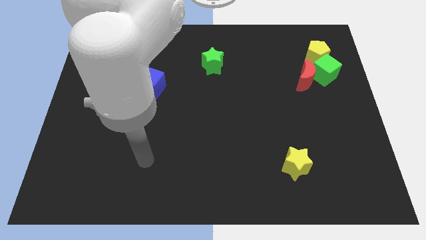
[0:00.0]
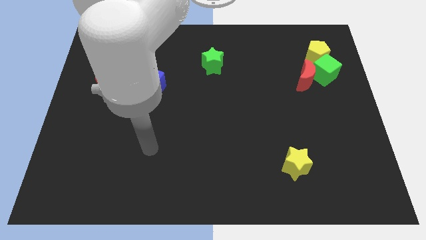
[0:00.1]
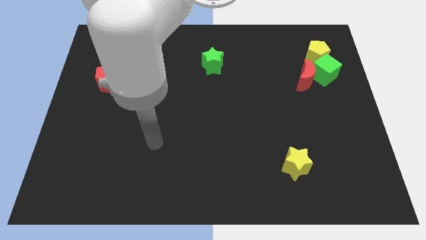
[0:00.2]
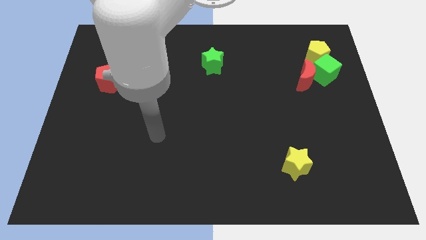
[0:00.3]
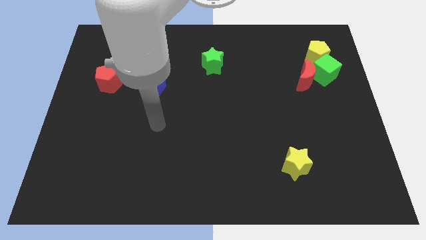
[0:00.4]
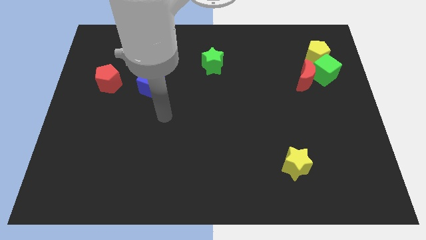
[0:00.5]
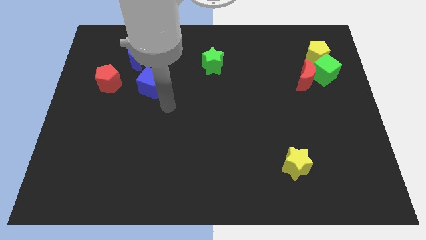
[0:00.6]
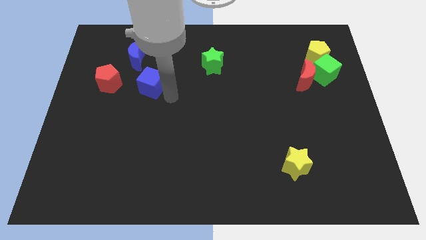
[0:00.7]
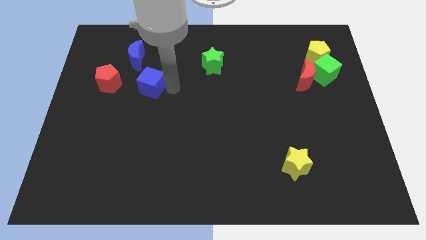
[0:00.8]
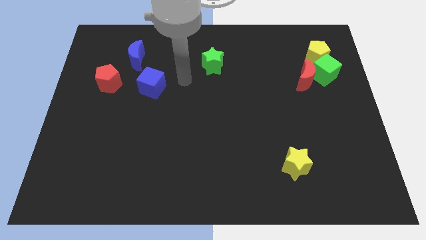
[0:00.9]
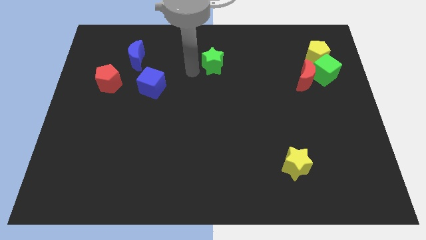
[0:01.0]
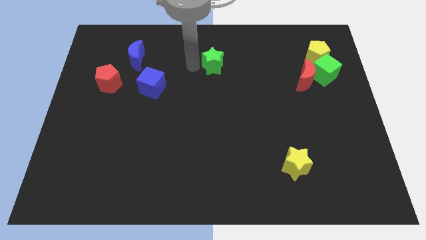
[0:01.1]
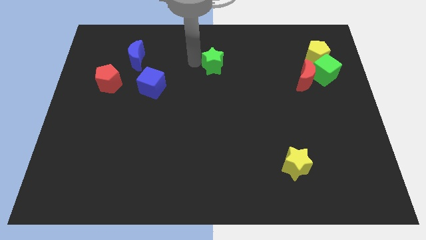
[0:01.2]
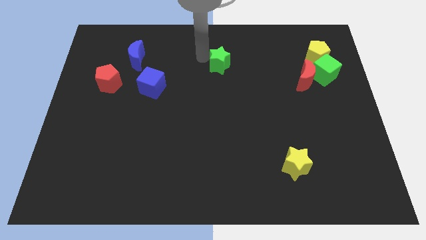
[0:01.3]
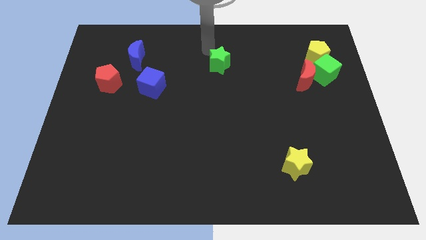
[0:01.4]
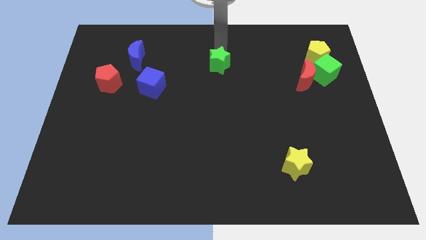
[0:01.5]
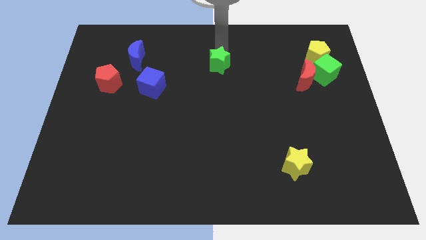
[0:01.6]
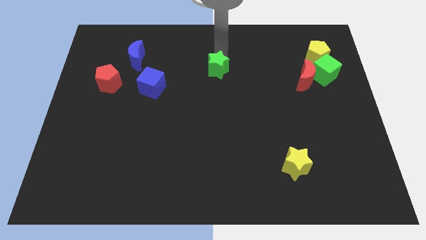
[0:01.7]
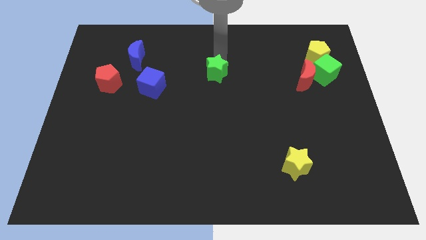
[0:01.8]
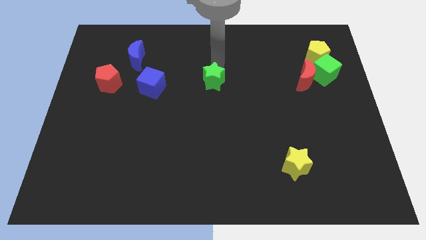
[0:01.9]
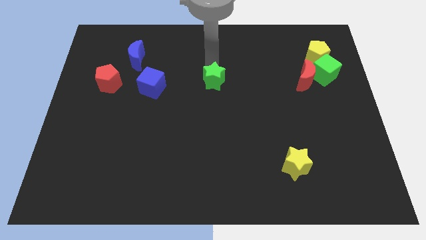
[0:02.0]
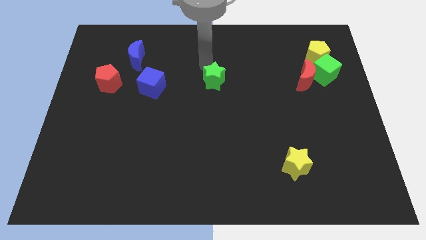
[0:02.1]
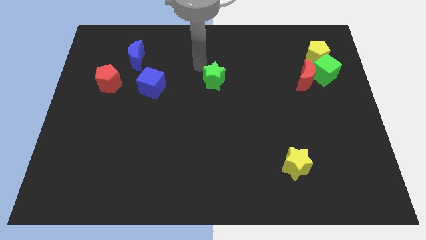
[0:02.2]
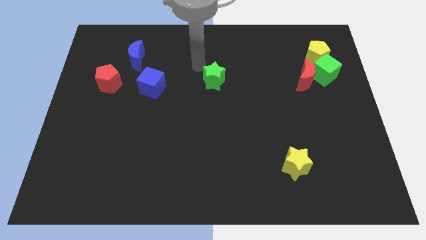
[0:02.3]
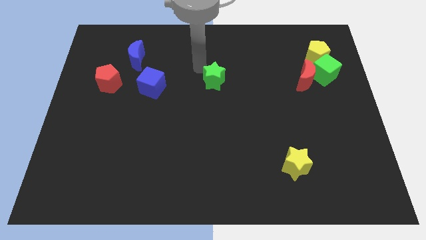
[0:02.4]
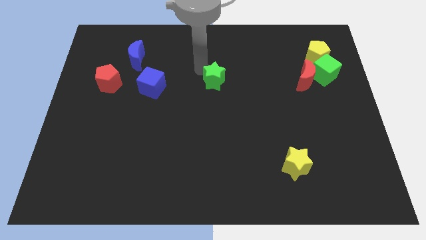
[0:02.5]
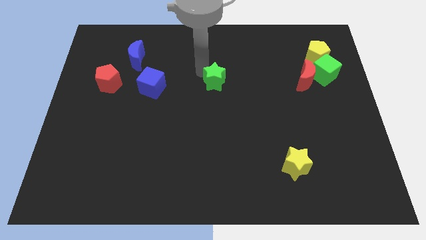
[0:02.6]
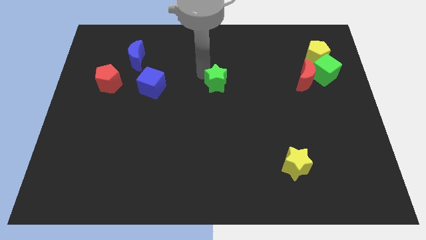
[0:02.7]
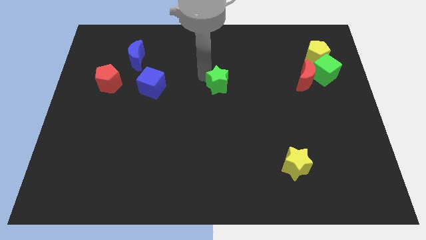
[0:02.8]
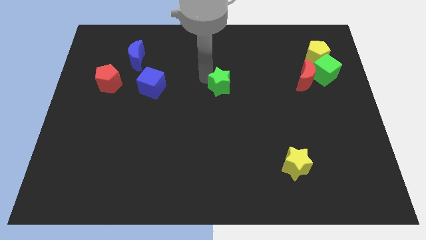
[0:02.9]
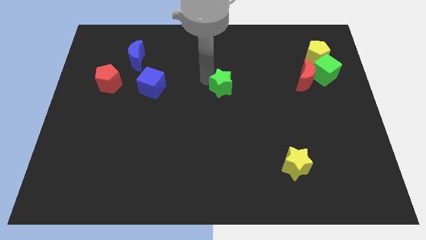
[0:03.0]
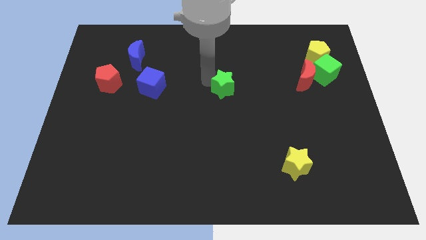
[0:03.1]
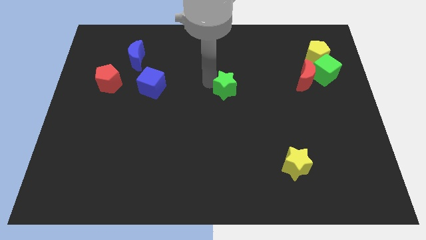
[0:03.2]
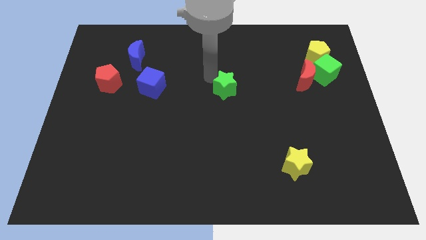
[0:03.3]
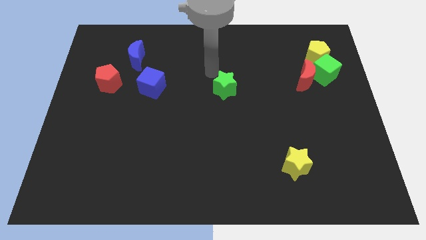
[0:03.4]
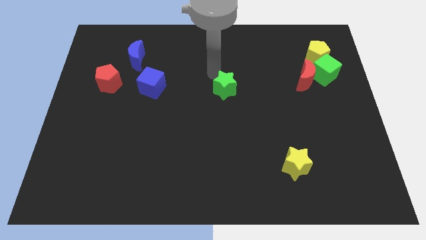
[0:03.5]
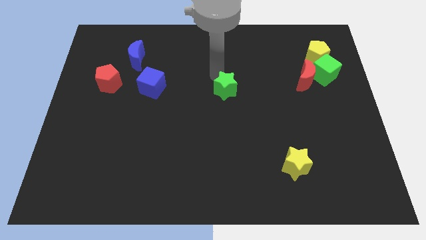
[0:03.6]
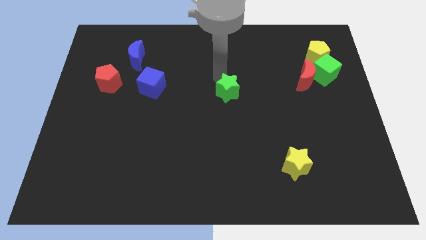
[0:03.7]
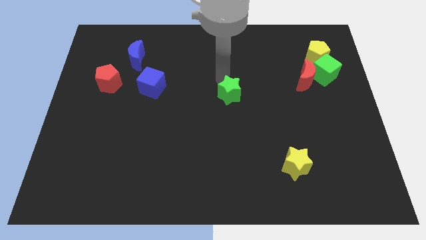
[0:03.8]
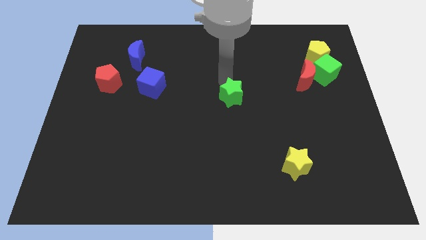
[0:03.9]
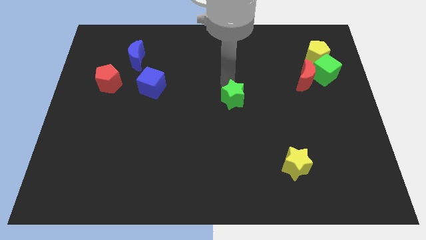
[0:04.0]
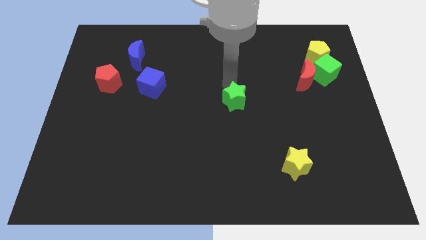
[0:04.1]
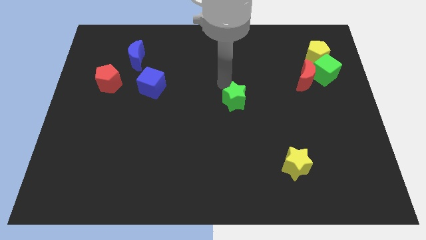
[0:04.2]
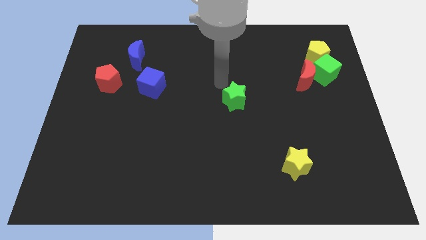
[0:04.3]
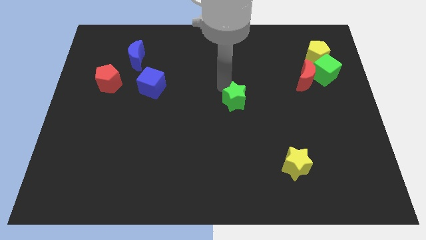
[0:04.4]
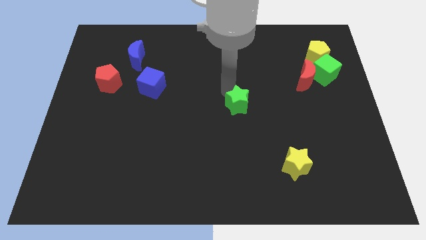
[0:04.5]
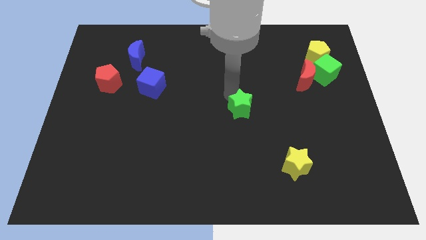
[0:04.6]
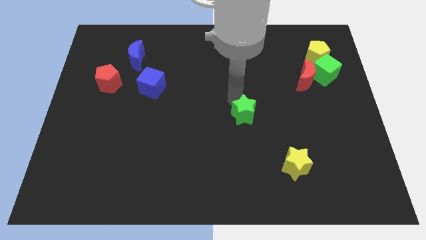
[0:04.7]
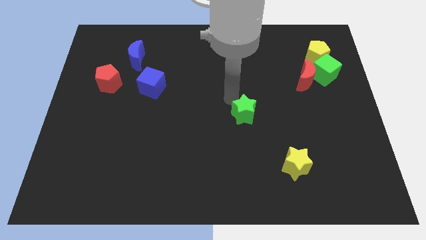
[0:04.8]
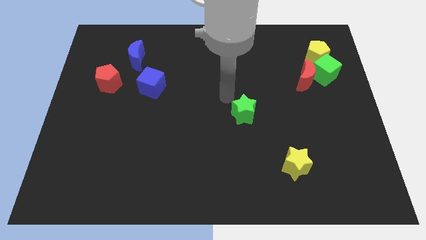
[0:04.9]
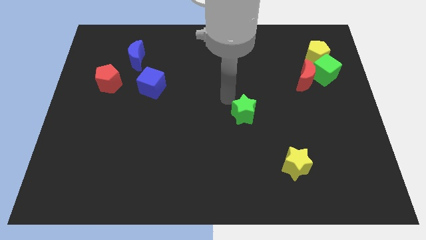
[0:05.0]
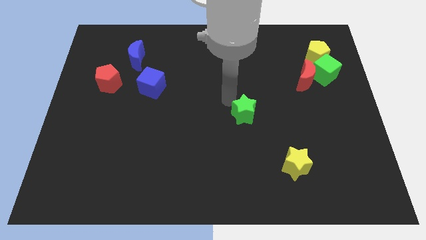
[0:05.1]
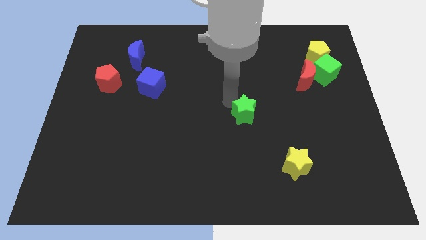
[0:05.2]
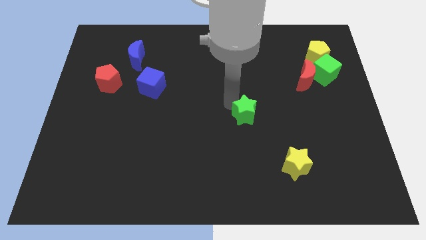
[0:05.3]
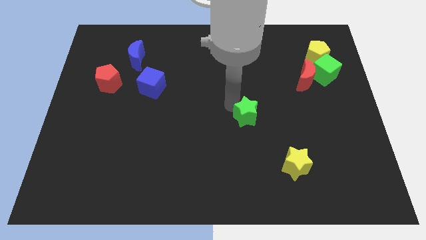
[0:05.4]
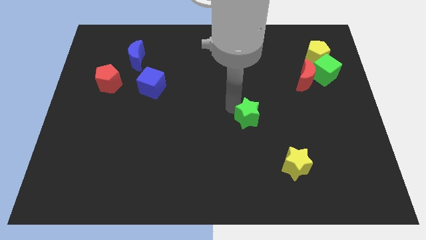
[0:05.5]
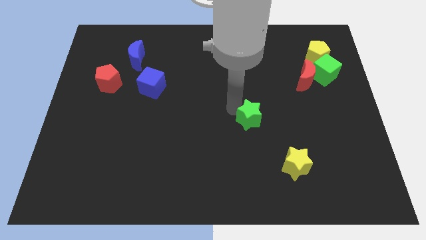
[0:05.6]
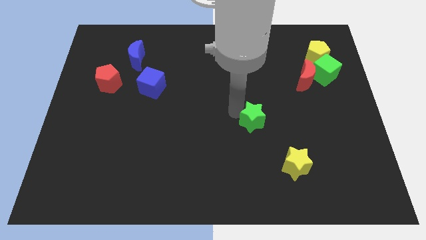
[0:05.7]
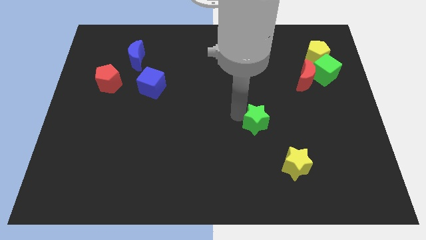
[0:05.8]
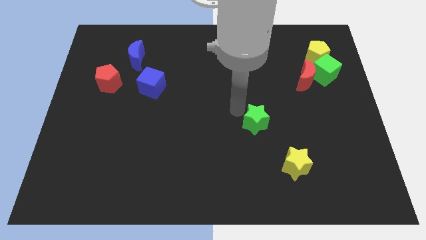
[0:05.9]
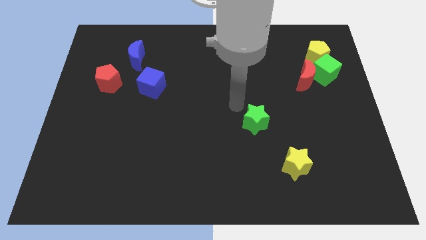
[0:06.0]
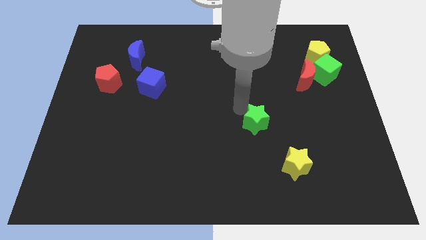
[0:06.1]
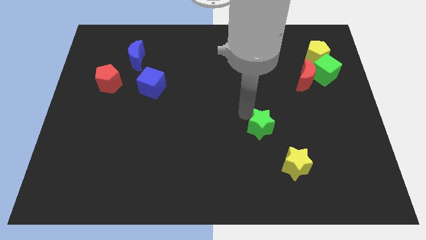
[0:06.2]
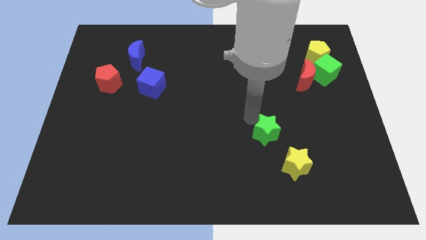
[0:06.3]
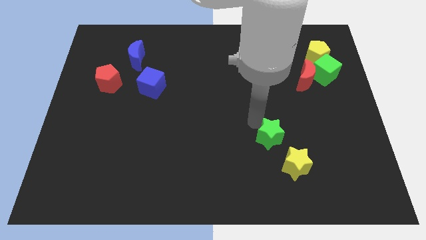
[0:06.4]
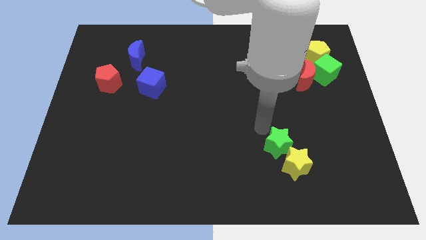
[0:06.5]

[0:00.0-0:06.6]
put the green star towards the yellow star

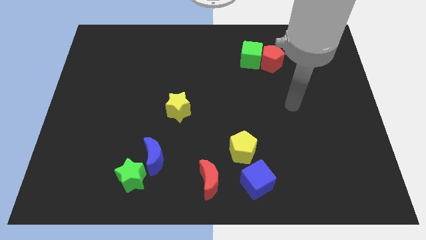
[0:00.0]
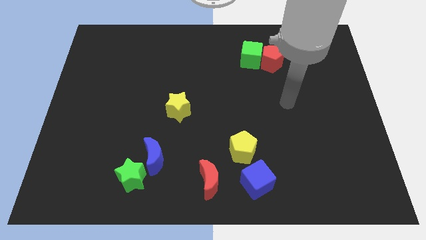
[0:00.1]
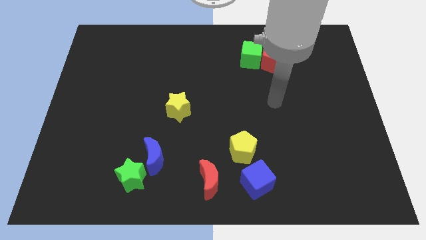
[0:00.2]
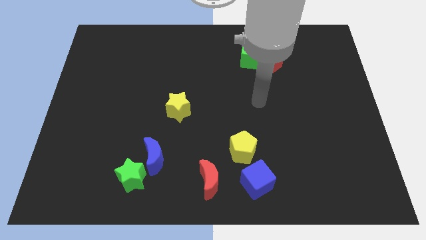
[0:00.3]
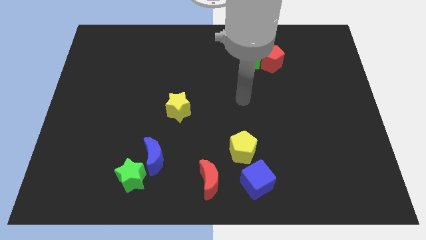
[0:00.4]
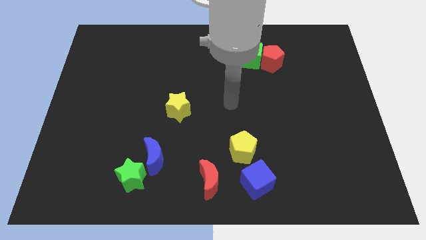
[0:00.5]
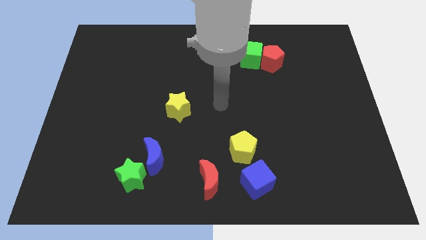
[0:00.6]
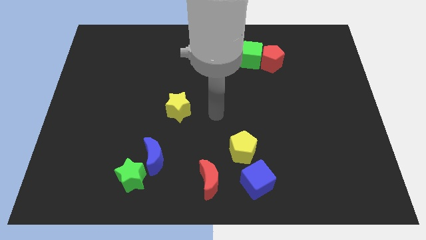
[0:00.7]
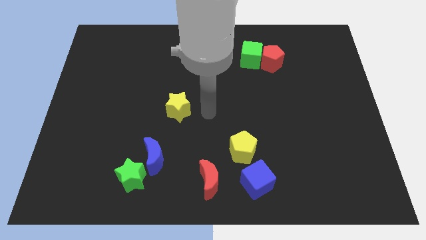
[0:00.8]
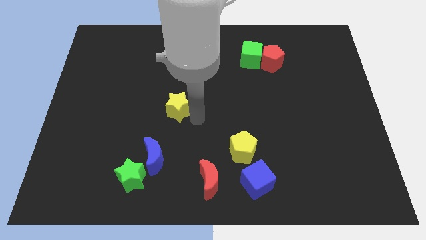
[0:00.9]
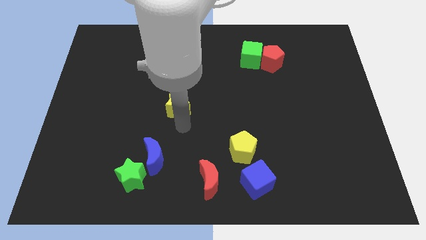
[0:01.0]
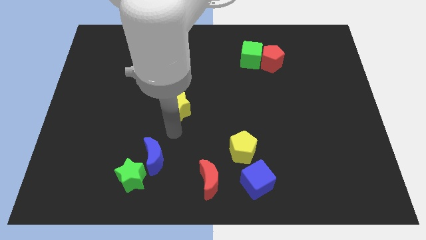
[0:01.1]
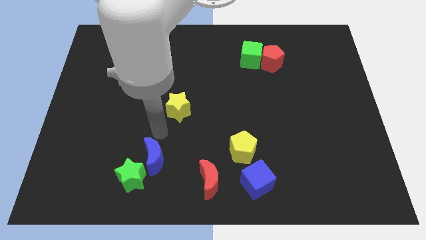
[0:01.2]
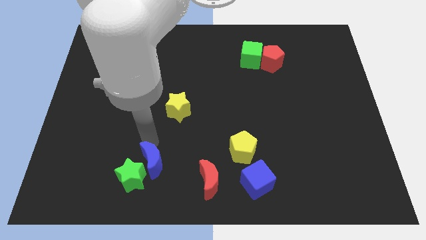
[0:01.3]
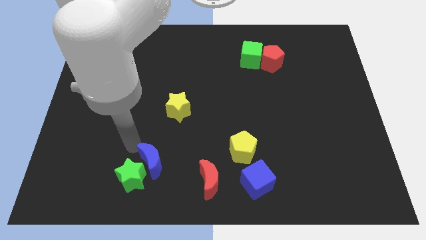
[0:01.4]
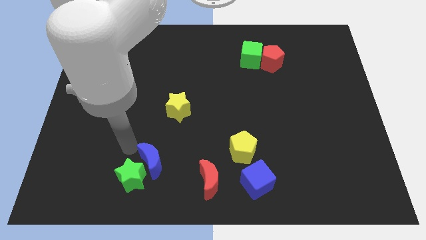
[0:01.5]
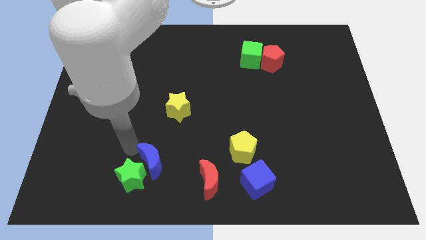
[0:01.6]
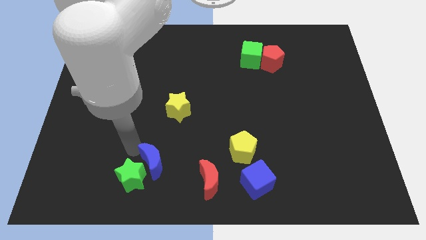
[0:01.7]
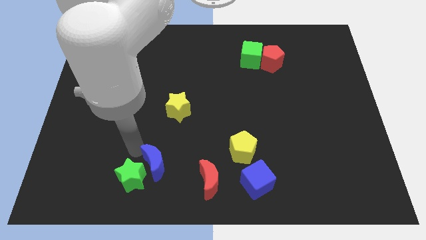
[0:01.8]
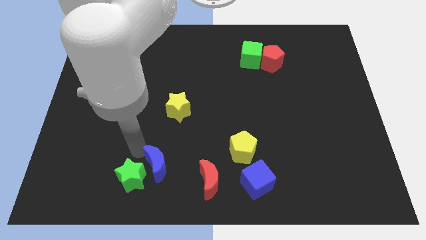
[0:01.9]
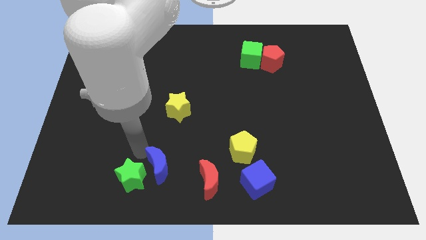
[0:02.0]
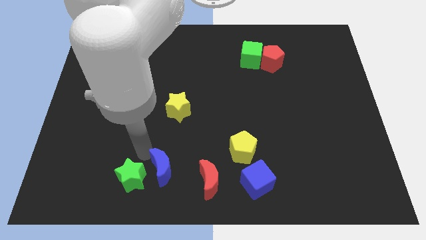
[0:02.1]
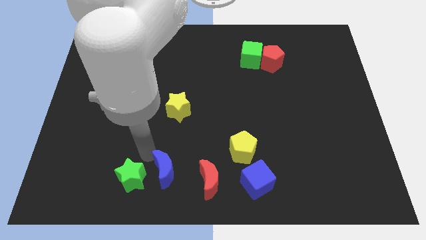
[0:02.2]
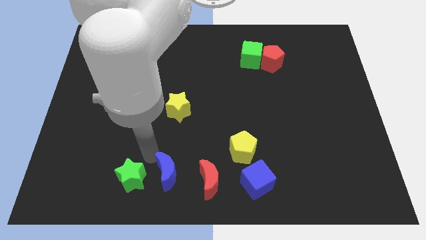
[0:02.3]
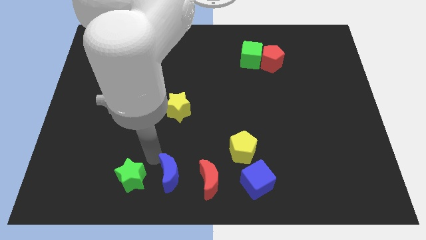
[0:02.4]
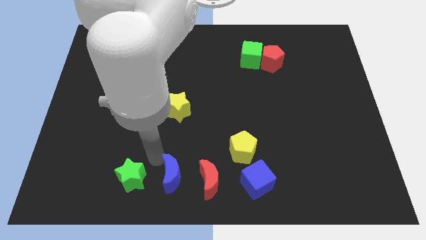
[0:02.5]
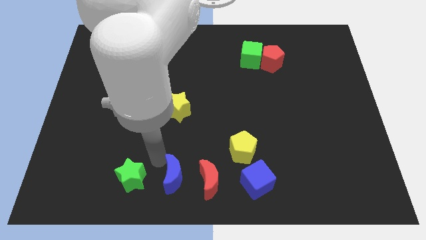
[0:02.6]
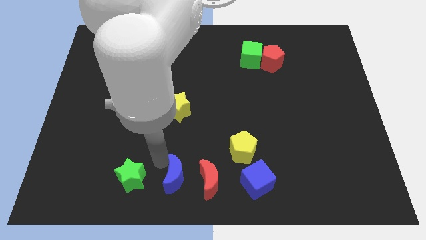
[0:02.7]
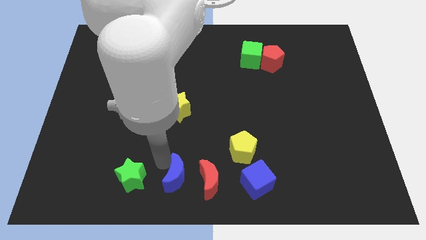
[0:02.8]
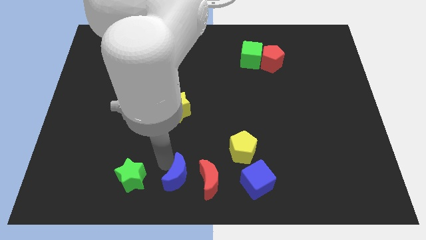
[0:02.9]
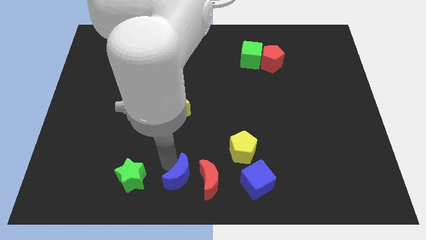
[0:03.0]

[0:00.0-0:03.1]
put the blue moon close to the red moon
